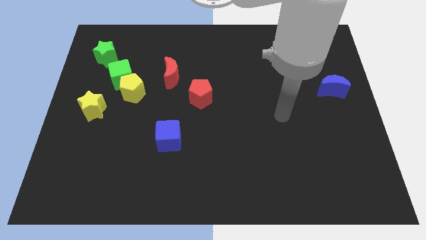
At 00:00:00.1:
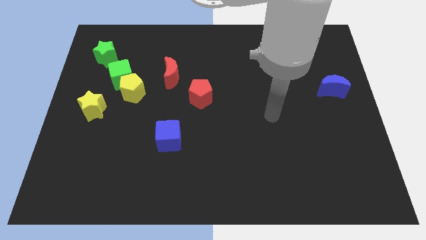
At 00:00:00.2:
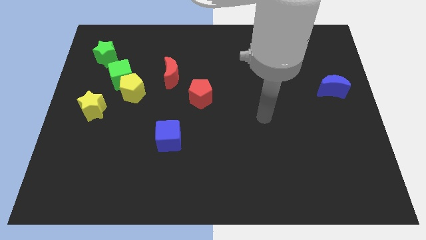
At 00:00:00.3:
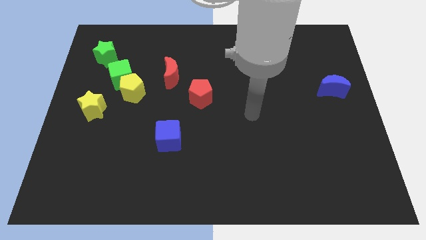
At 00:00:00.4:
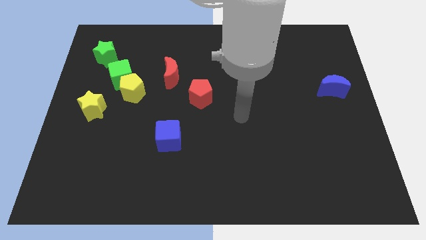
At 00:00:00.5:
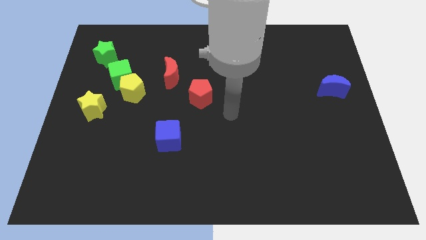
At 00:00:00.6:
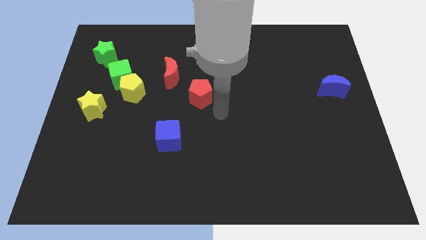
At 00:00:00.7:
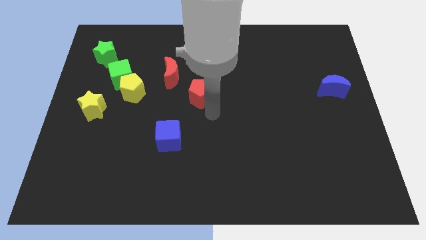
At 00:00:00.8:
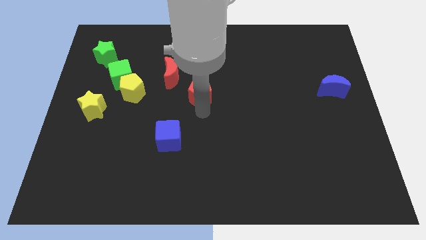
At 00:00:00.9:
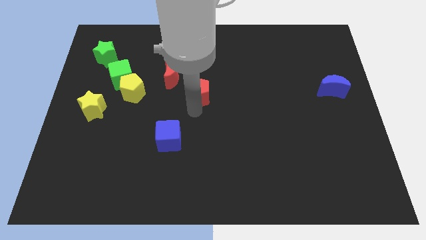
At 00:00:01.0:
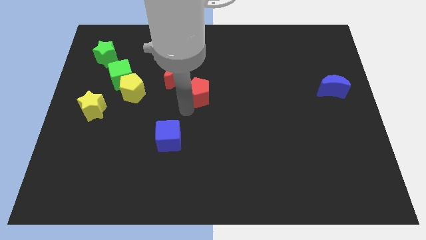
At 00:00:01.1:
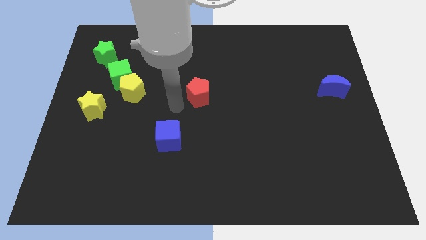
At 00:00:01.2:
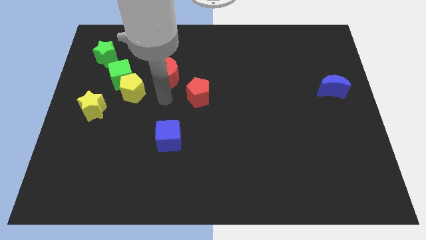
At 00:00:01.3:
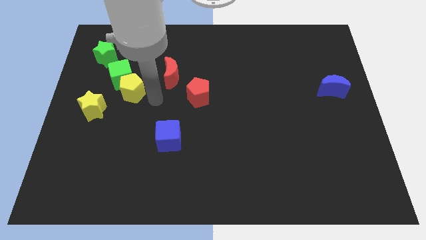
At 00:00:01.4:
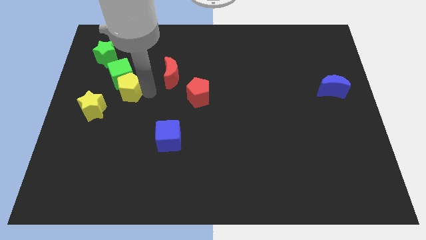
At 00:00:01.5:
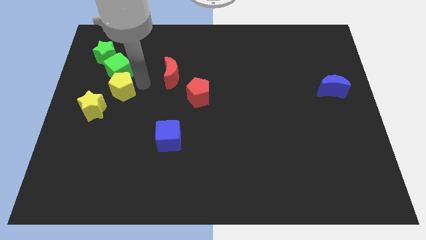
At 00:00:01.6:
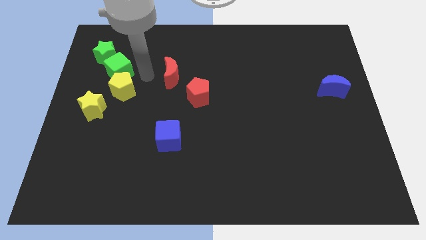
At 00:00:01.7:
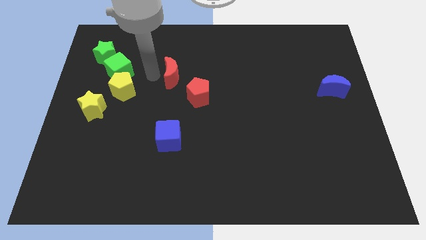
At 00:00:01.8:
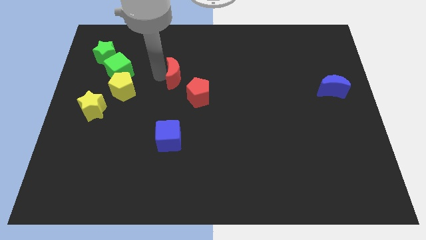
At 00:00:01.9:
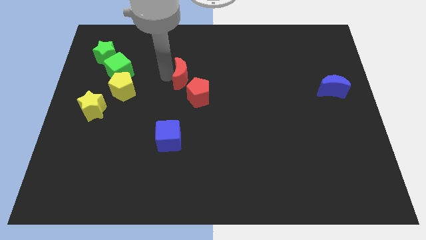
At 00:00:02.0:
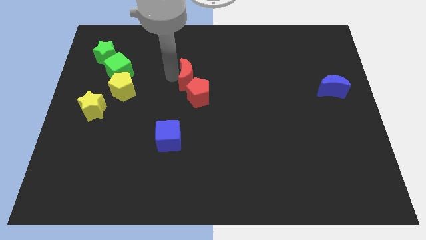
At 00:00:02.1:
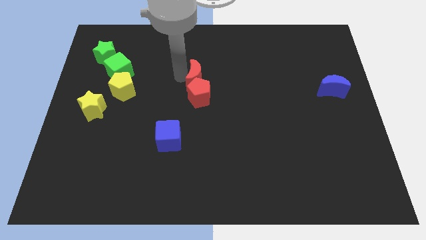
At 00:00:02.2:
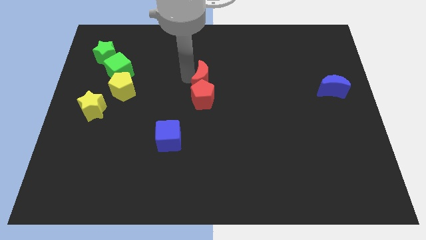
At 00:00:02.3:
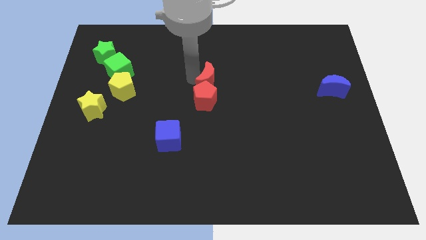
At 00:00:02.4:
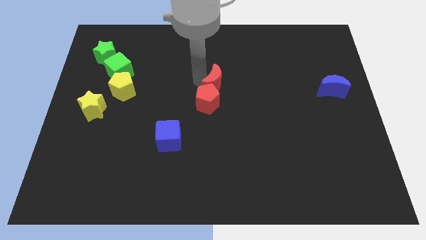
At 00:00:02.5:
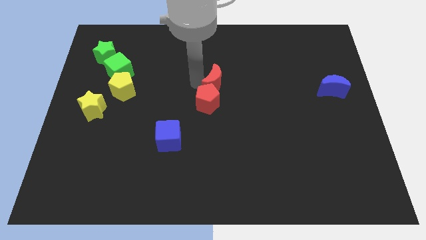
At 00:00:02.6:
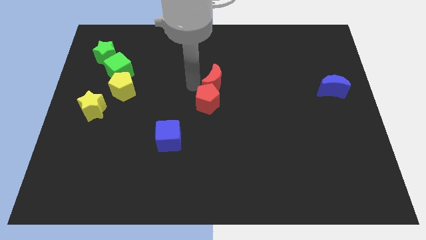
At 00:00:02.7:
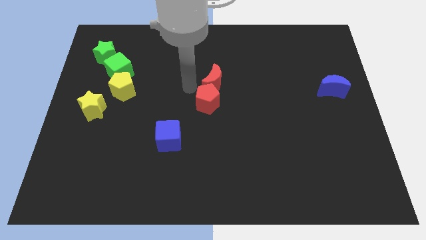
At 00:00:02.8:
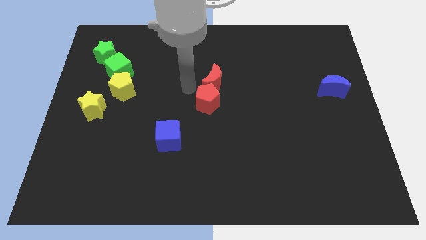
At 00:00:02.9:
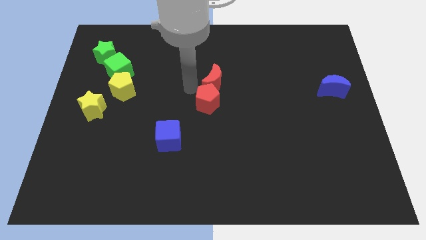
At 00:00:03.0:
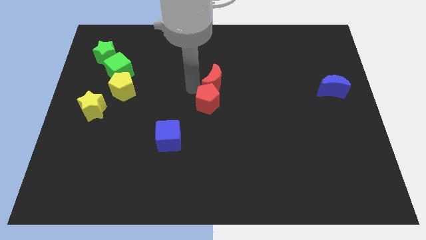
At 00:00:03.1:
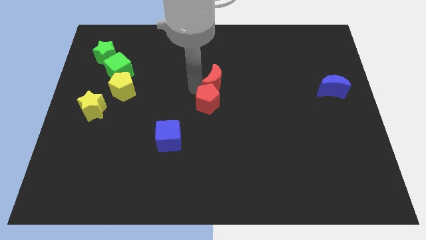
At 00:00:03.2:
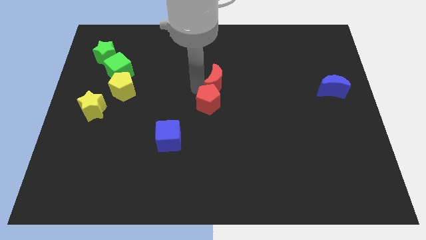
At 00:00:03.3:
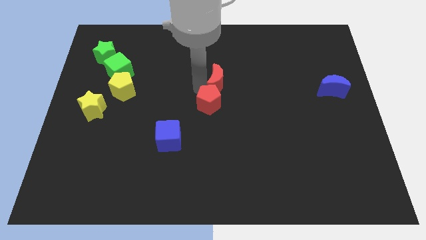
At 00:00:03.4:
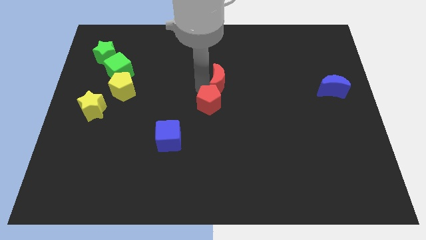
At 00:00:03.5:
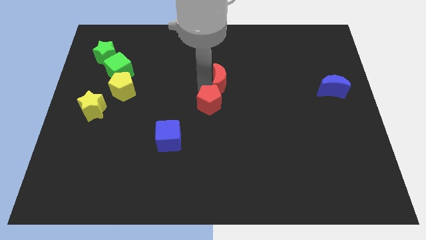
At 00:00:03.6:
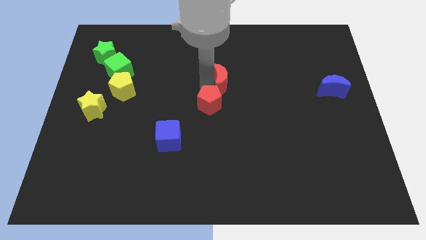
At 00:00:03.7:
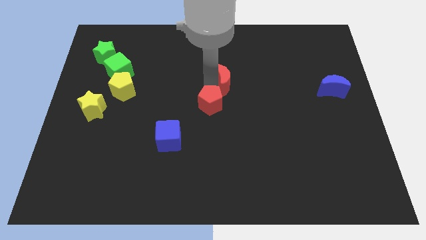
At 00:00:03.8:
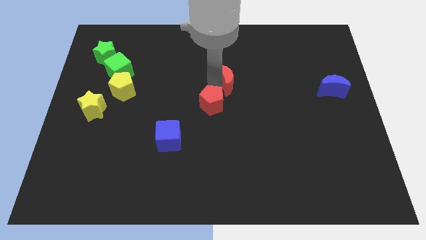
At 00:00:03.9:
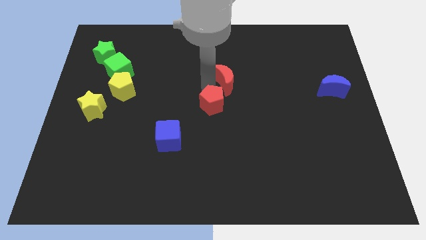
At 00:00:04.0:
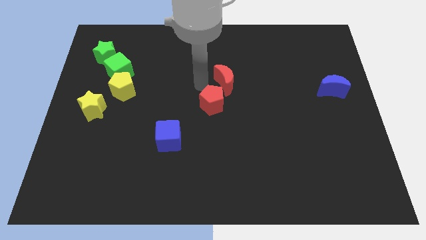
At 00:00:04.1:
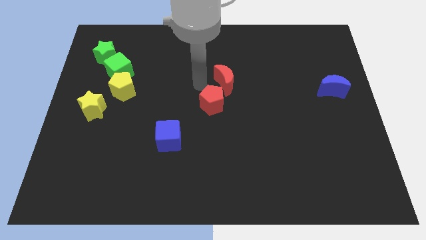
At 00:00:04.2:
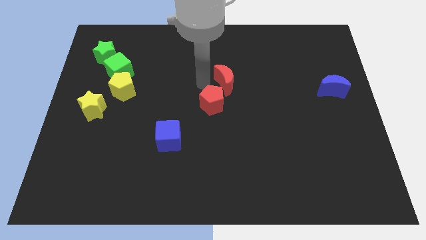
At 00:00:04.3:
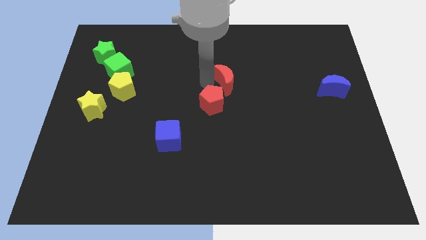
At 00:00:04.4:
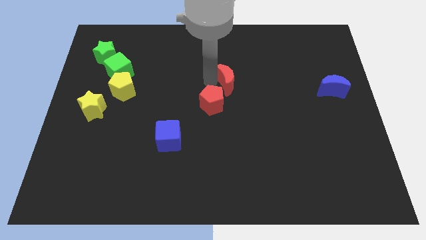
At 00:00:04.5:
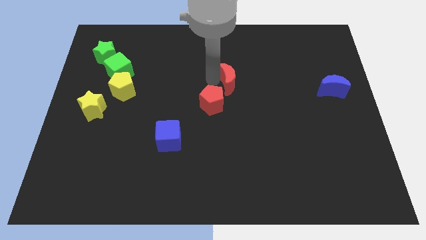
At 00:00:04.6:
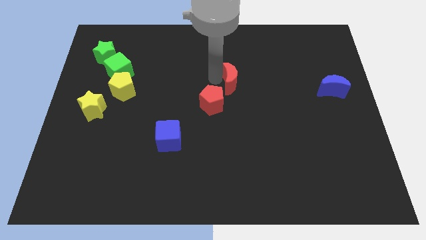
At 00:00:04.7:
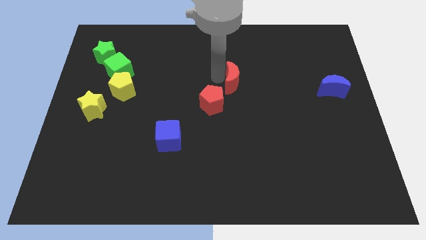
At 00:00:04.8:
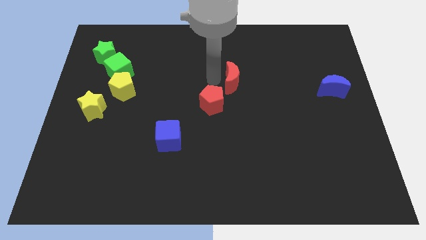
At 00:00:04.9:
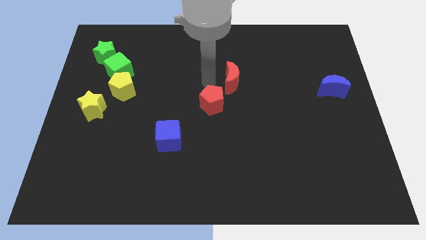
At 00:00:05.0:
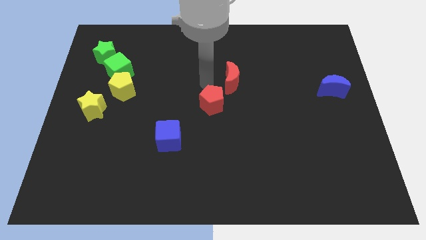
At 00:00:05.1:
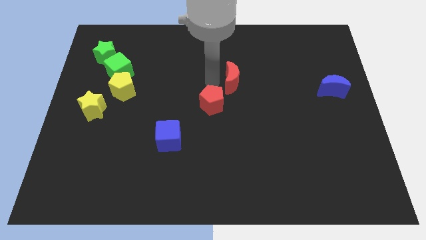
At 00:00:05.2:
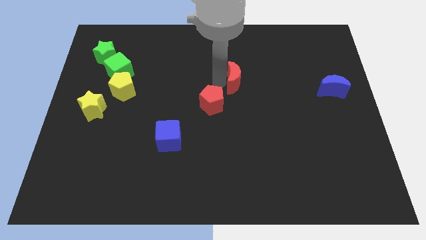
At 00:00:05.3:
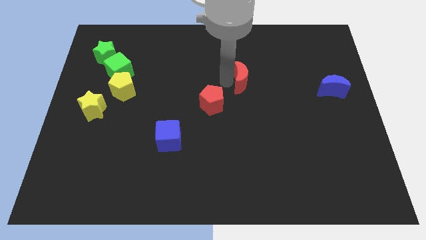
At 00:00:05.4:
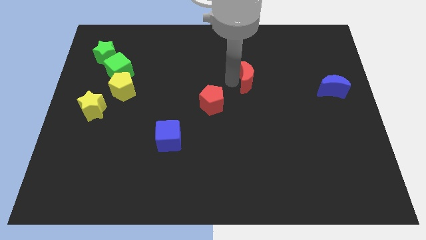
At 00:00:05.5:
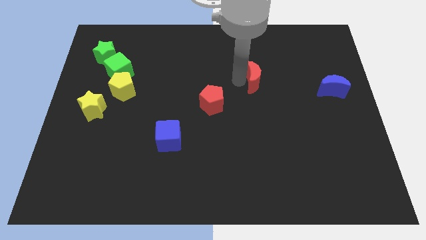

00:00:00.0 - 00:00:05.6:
push the red moon right

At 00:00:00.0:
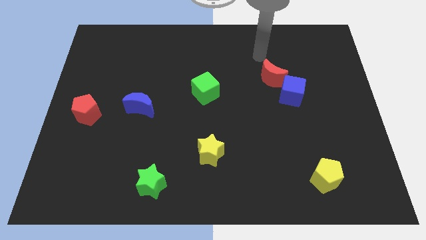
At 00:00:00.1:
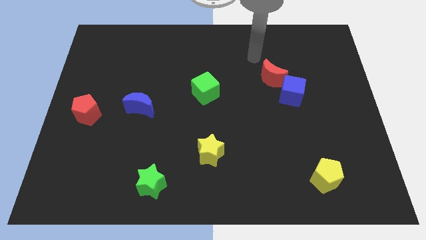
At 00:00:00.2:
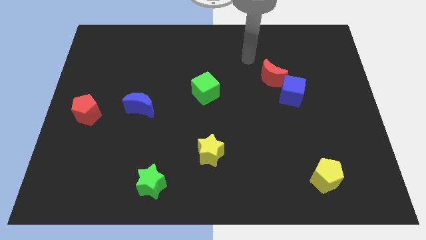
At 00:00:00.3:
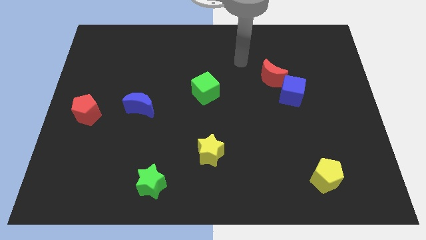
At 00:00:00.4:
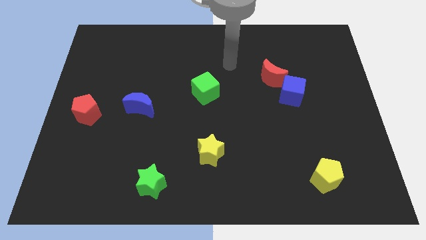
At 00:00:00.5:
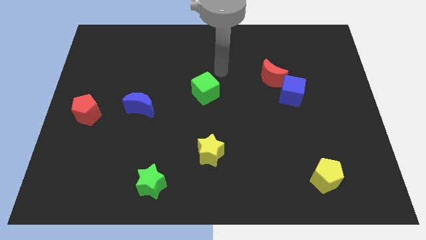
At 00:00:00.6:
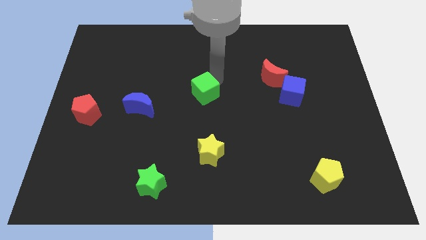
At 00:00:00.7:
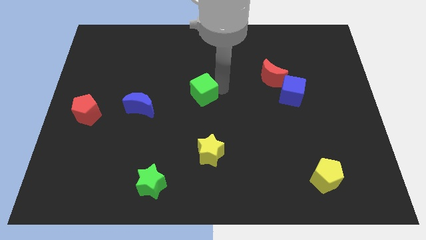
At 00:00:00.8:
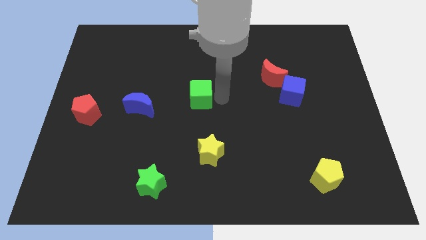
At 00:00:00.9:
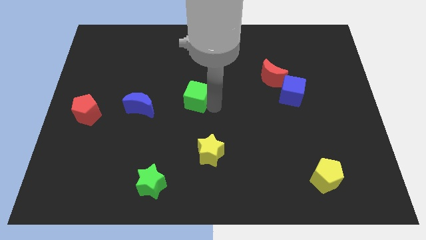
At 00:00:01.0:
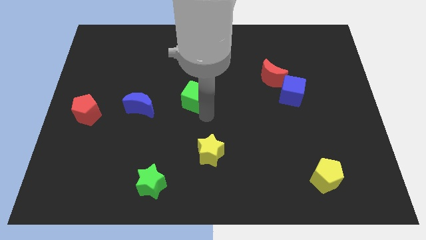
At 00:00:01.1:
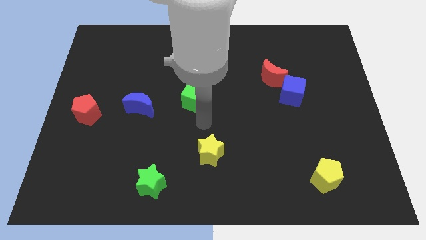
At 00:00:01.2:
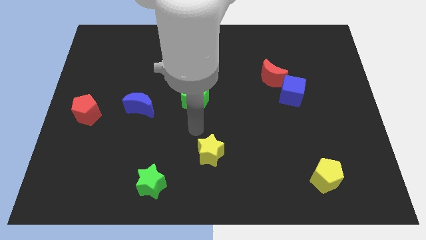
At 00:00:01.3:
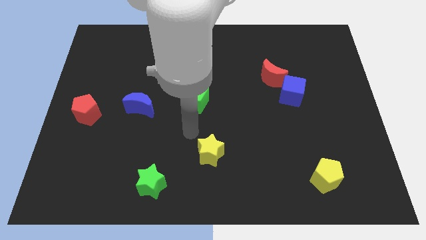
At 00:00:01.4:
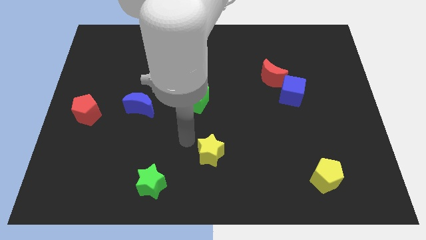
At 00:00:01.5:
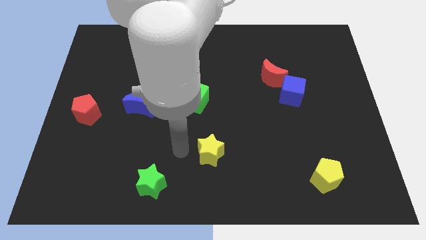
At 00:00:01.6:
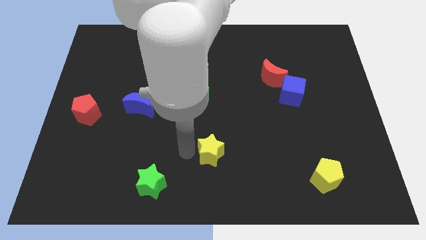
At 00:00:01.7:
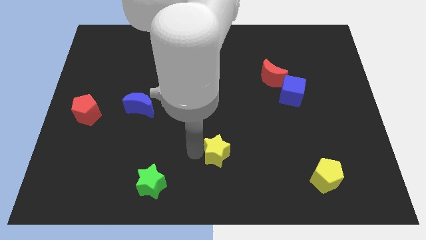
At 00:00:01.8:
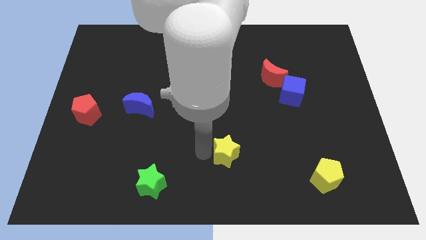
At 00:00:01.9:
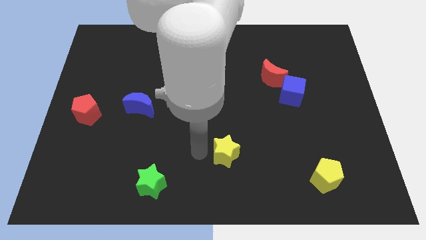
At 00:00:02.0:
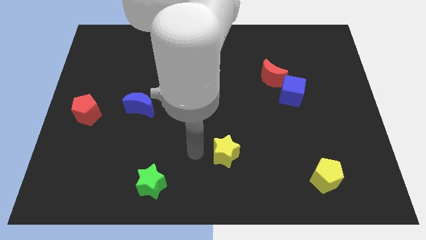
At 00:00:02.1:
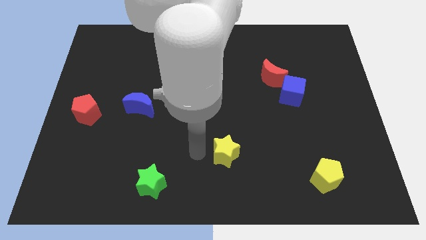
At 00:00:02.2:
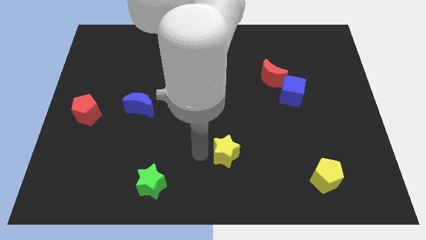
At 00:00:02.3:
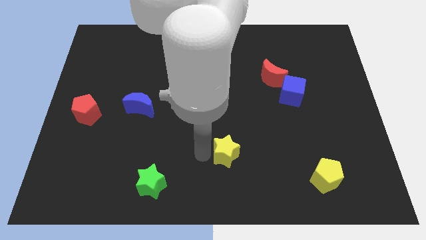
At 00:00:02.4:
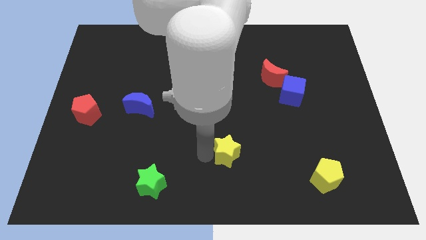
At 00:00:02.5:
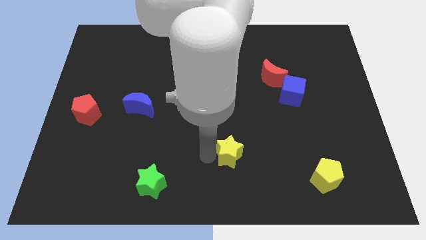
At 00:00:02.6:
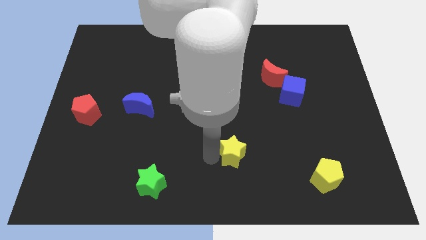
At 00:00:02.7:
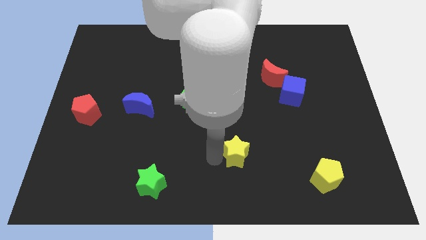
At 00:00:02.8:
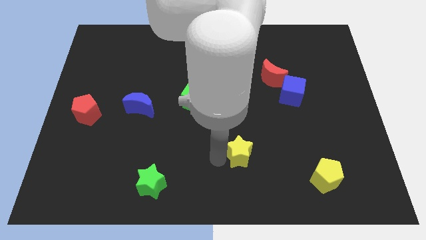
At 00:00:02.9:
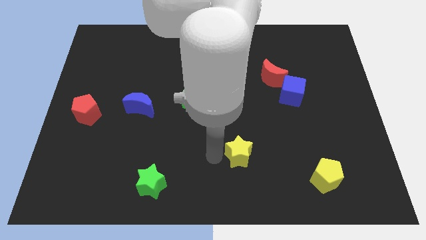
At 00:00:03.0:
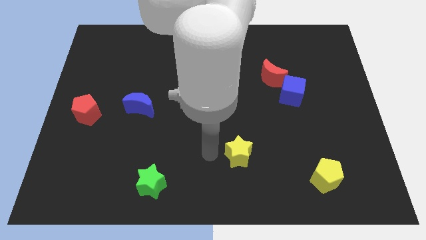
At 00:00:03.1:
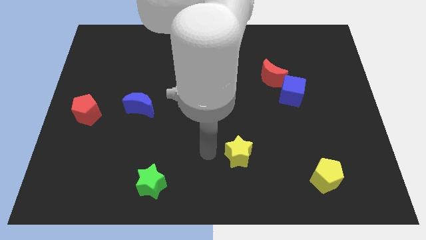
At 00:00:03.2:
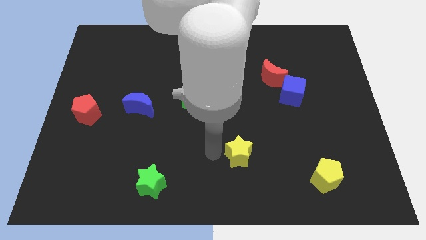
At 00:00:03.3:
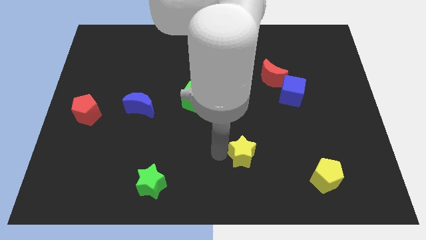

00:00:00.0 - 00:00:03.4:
slide the yellow star to the right slightly
